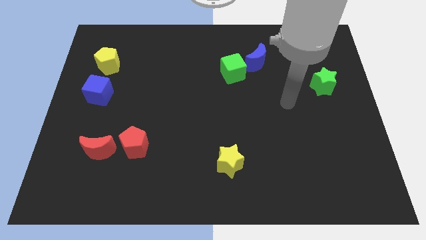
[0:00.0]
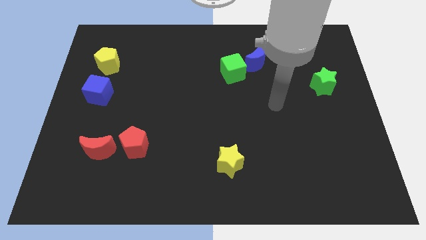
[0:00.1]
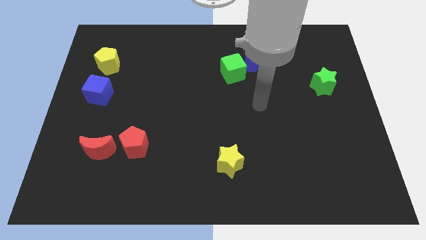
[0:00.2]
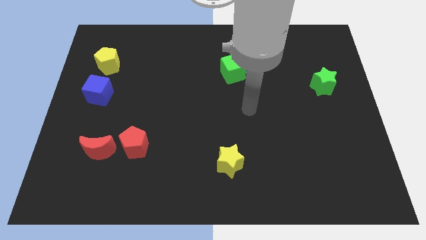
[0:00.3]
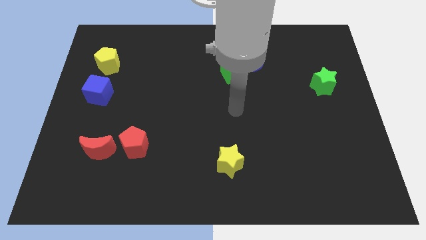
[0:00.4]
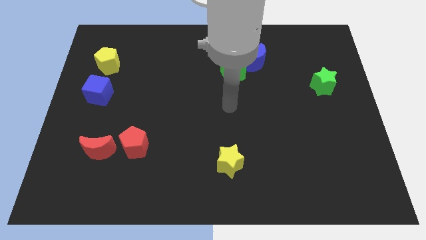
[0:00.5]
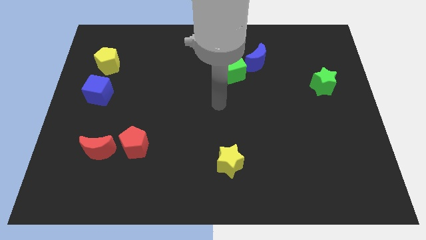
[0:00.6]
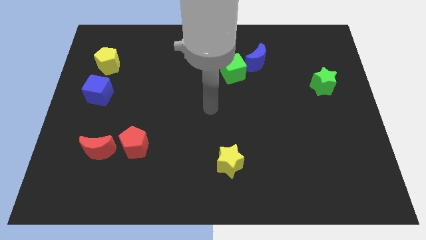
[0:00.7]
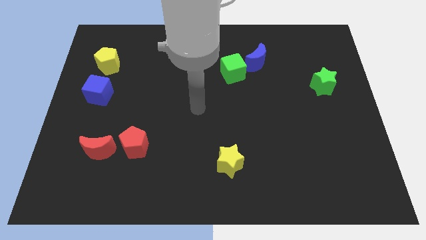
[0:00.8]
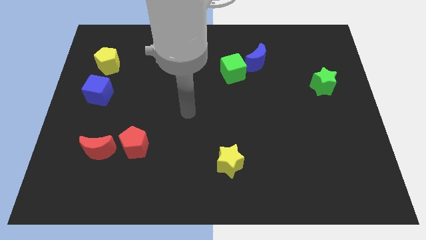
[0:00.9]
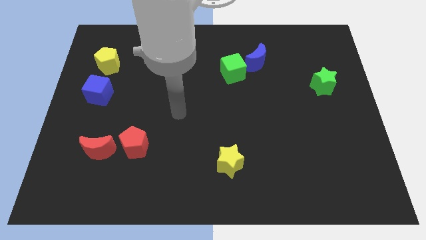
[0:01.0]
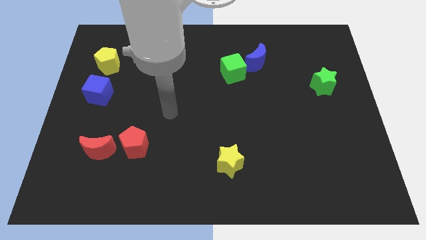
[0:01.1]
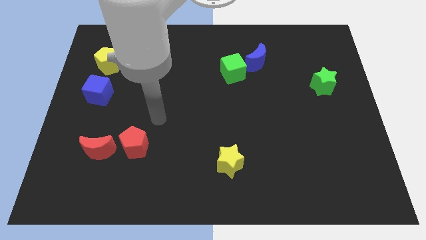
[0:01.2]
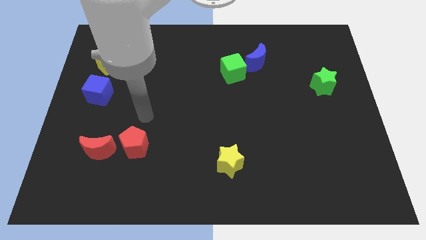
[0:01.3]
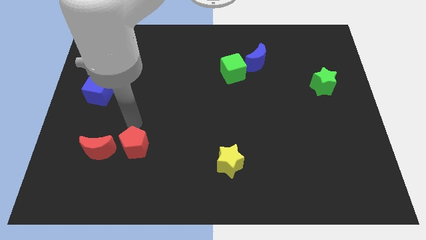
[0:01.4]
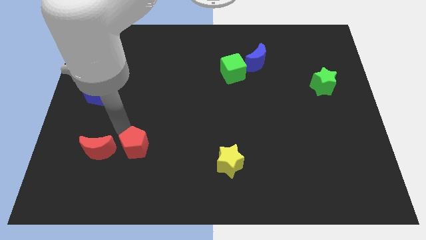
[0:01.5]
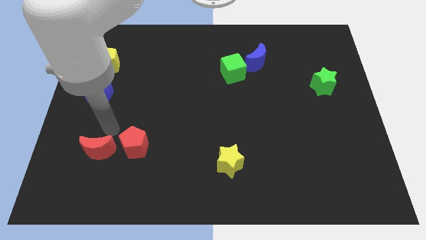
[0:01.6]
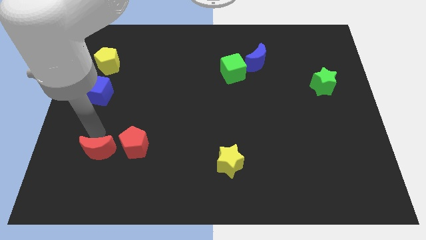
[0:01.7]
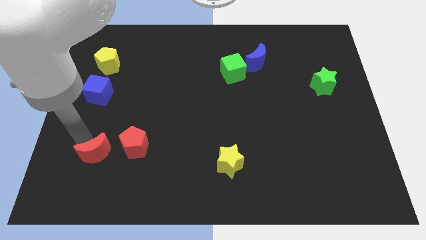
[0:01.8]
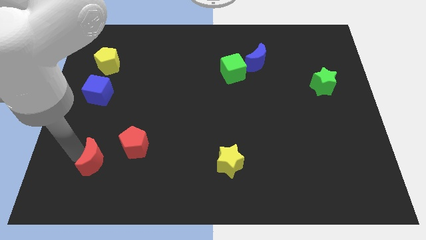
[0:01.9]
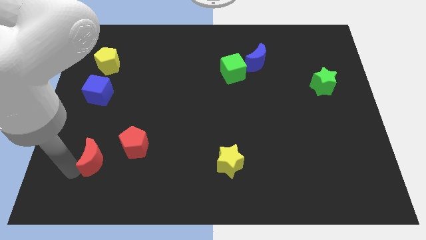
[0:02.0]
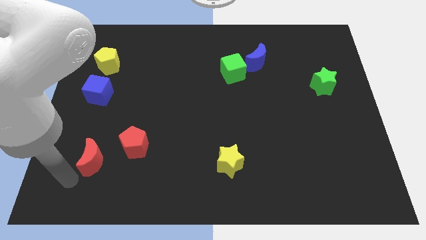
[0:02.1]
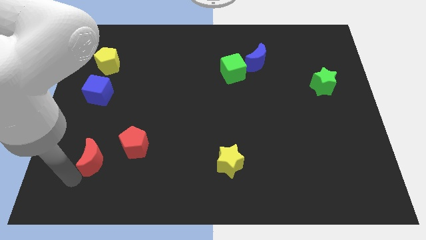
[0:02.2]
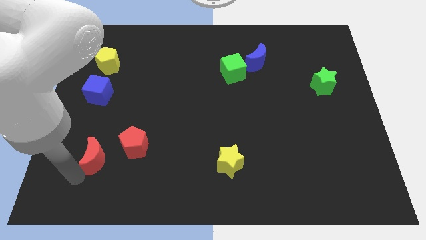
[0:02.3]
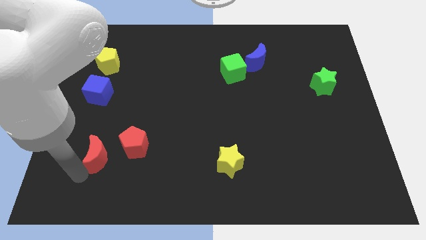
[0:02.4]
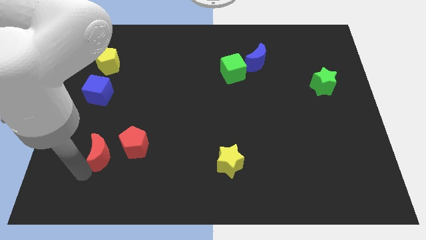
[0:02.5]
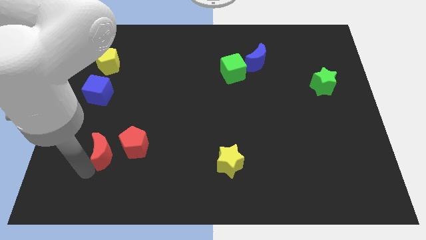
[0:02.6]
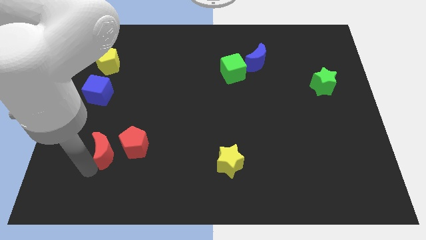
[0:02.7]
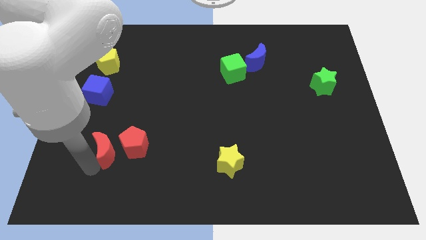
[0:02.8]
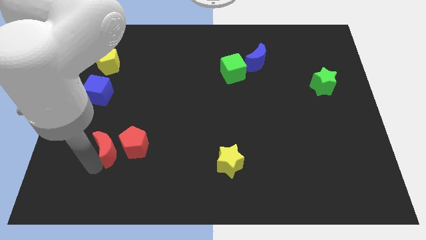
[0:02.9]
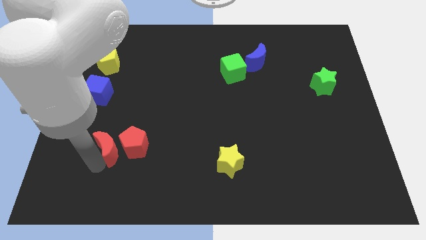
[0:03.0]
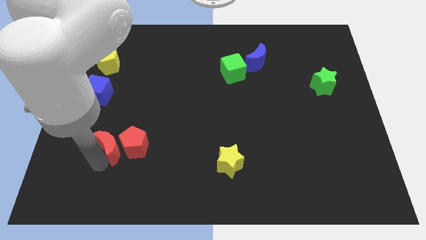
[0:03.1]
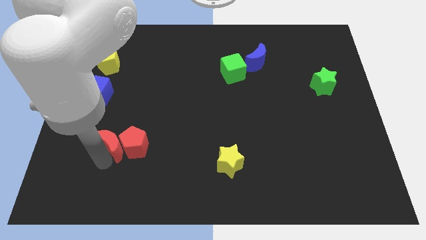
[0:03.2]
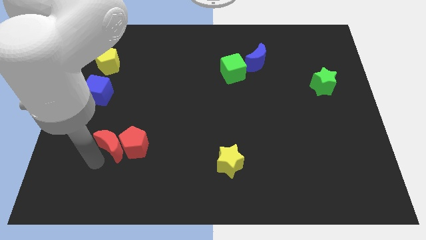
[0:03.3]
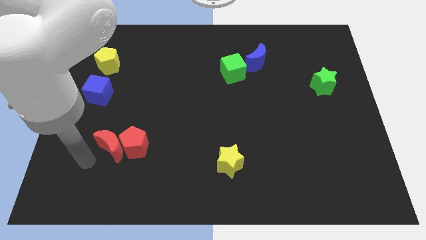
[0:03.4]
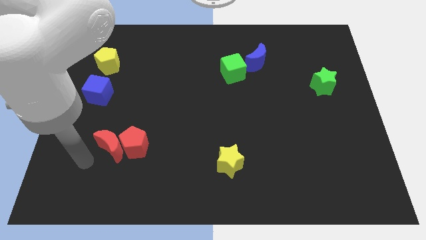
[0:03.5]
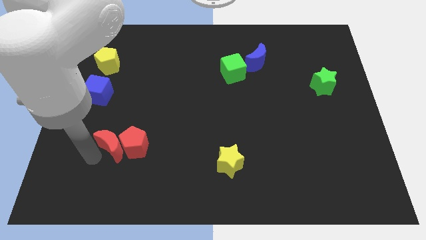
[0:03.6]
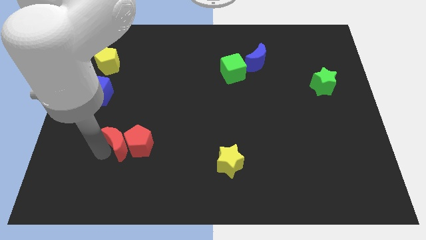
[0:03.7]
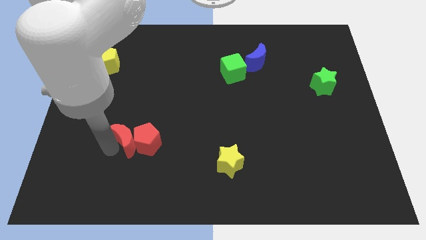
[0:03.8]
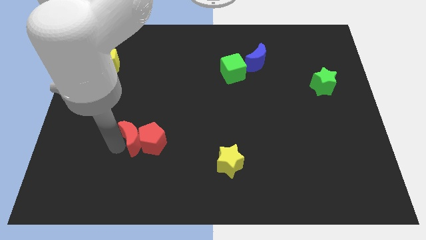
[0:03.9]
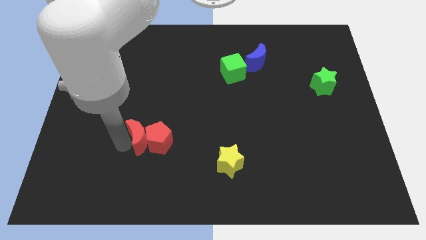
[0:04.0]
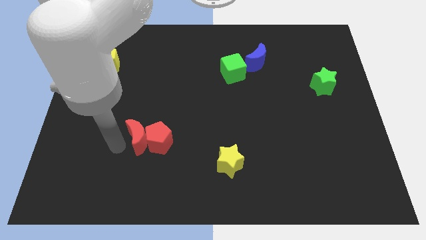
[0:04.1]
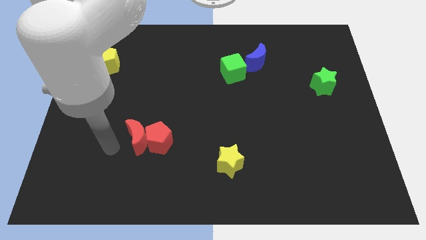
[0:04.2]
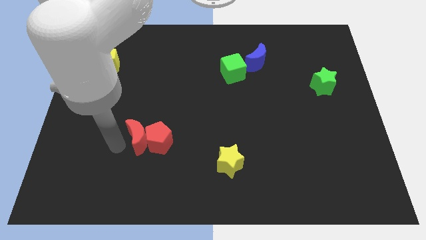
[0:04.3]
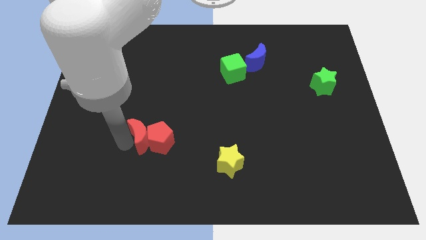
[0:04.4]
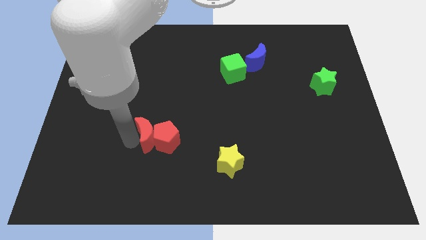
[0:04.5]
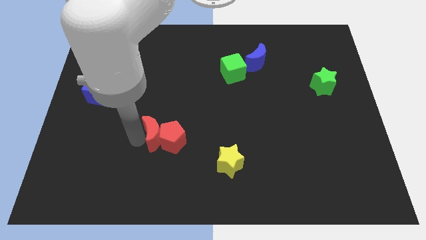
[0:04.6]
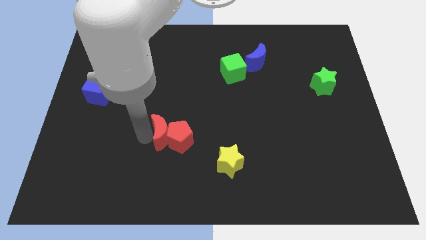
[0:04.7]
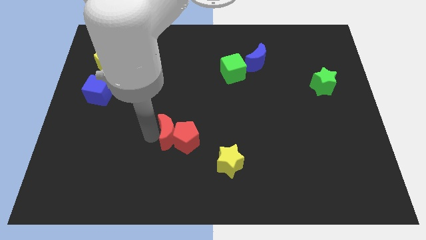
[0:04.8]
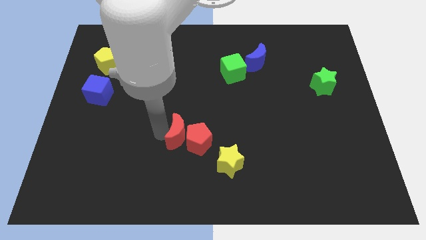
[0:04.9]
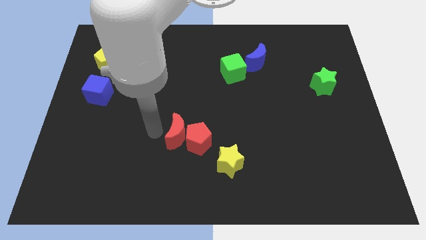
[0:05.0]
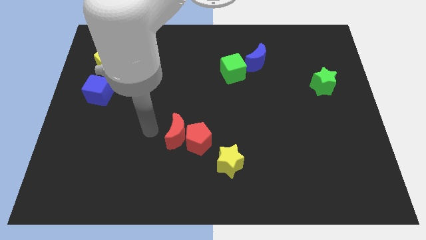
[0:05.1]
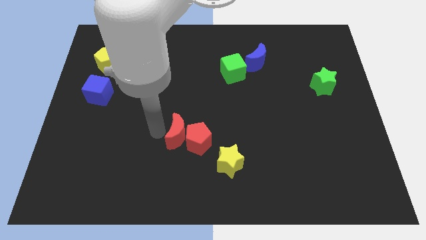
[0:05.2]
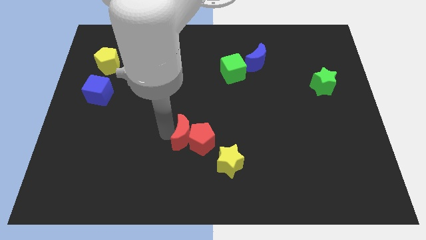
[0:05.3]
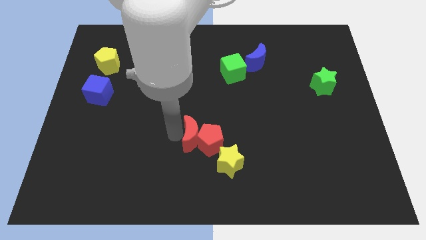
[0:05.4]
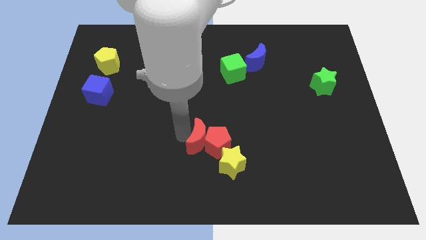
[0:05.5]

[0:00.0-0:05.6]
slide the red moon to the right

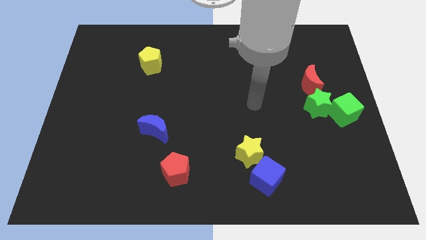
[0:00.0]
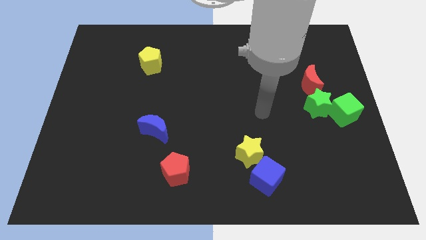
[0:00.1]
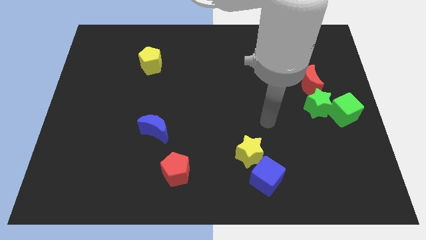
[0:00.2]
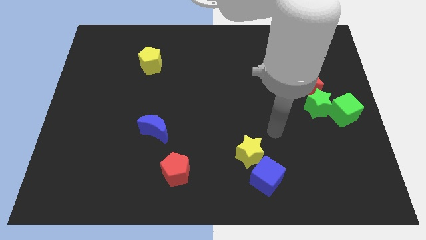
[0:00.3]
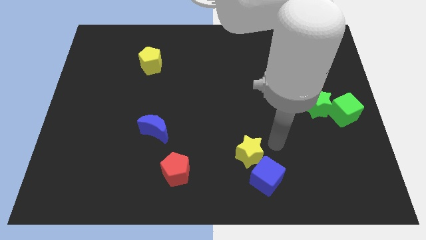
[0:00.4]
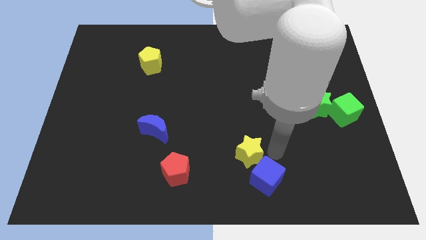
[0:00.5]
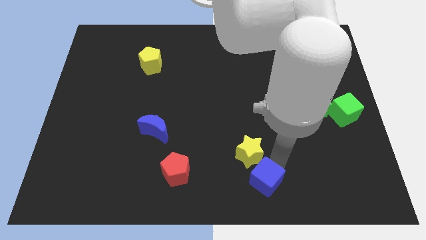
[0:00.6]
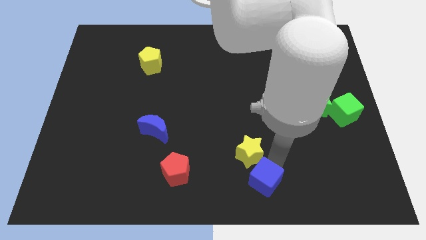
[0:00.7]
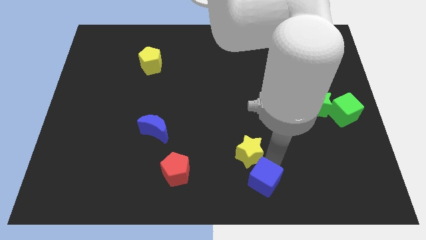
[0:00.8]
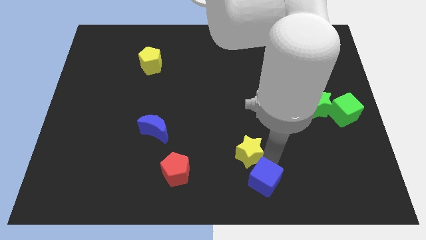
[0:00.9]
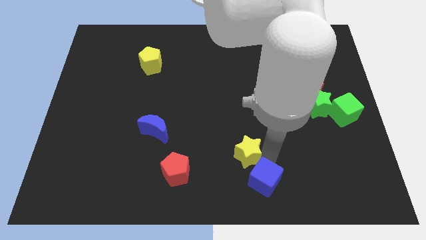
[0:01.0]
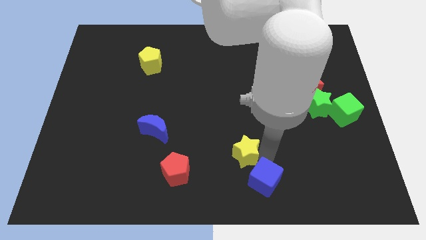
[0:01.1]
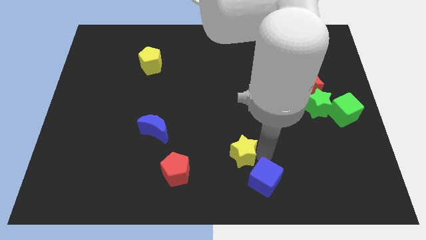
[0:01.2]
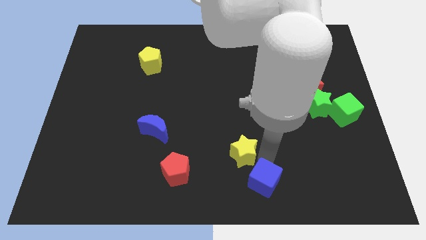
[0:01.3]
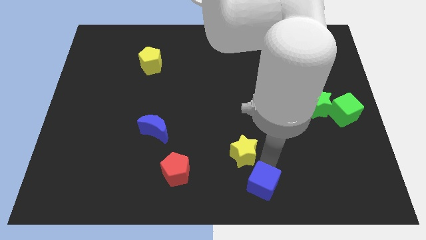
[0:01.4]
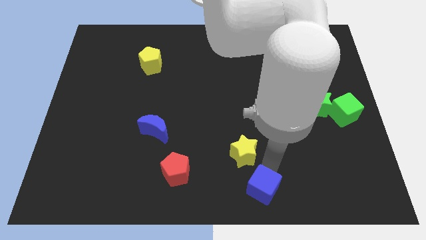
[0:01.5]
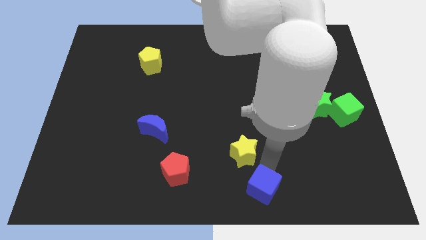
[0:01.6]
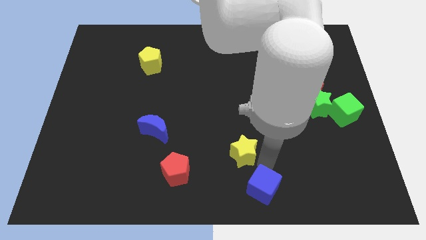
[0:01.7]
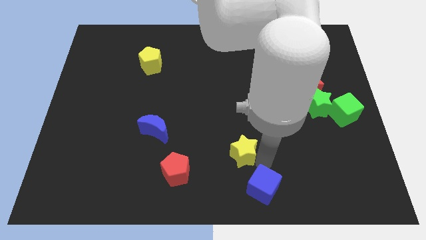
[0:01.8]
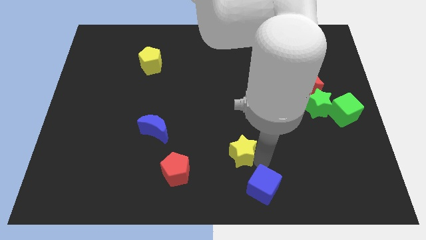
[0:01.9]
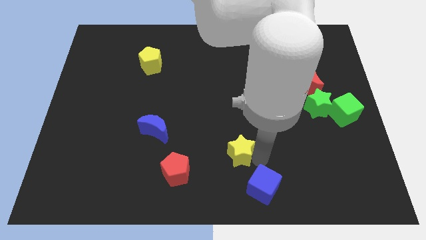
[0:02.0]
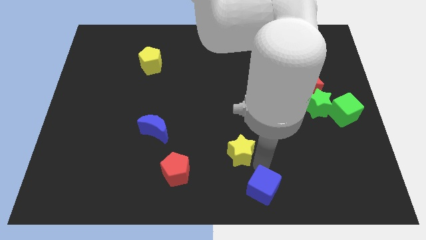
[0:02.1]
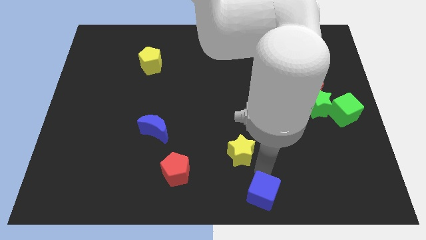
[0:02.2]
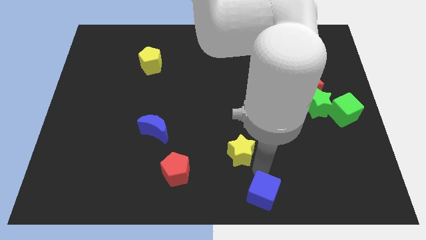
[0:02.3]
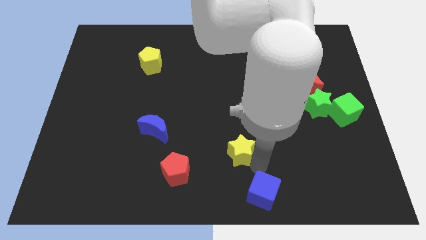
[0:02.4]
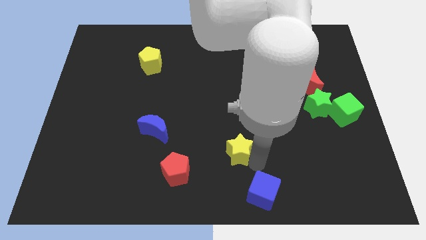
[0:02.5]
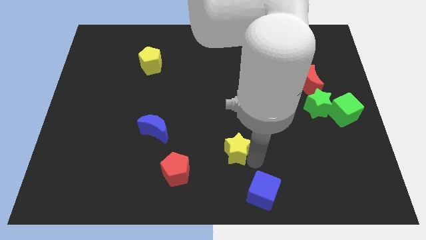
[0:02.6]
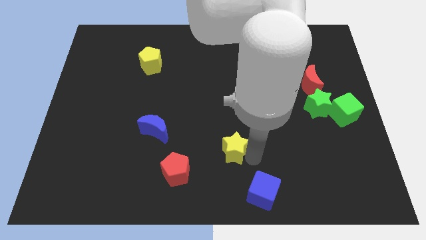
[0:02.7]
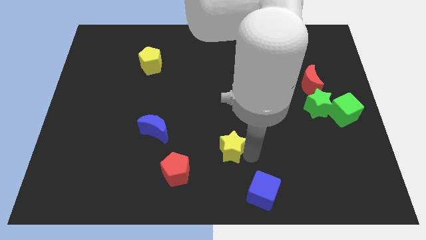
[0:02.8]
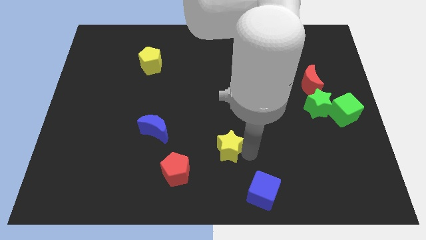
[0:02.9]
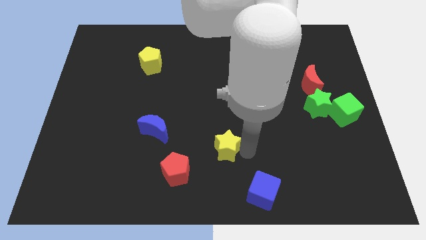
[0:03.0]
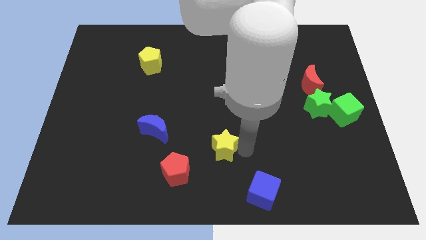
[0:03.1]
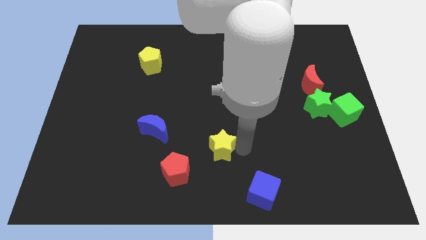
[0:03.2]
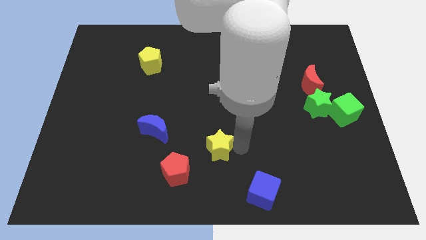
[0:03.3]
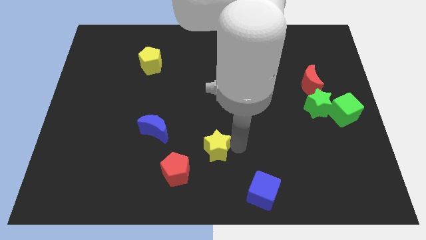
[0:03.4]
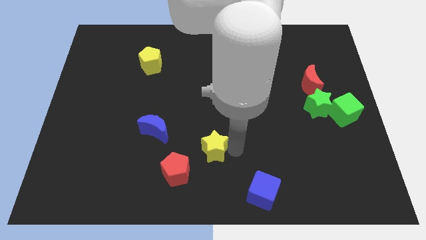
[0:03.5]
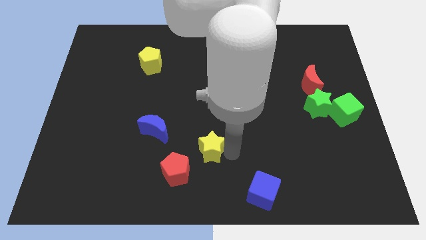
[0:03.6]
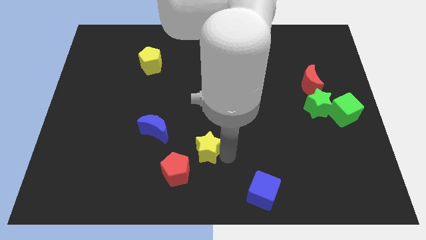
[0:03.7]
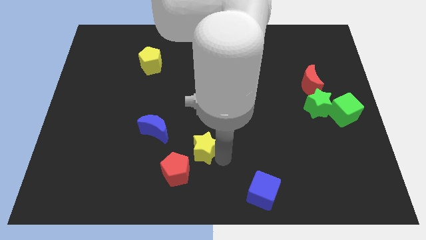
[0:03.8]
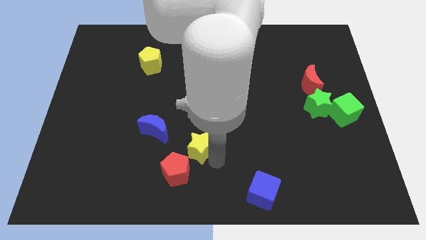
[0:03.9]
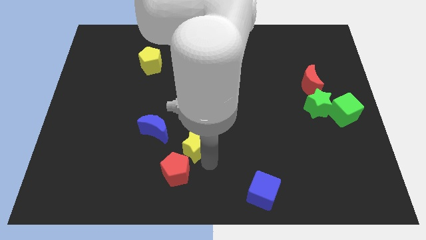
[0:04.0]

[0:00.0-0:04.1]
push the yellow star a little bit up and to the left diagonally
